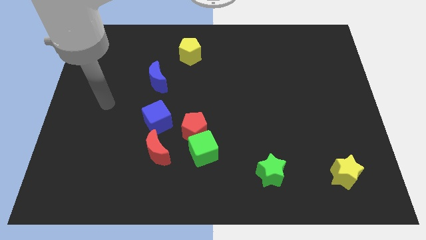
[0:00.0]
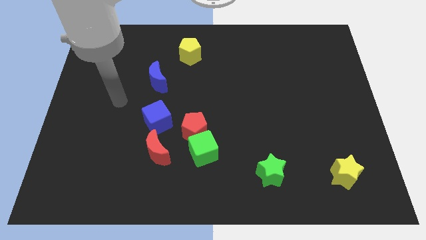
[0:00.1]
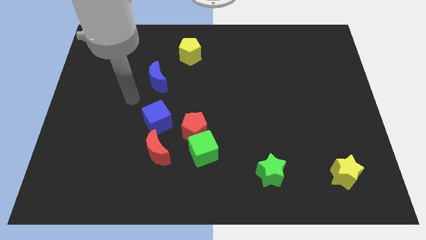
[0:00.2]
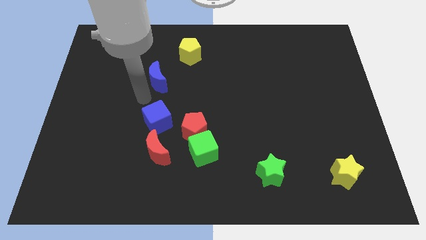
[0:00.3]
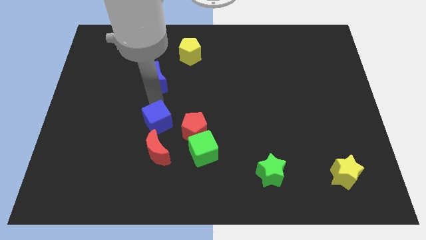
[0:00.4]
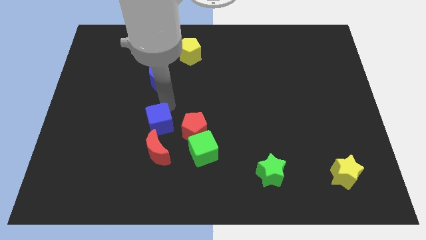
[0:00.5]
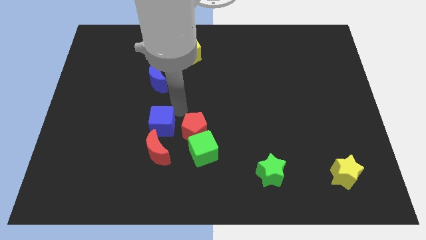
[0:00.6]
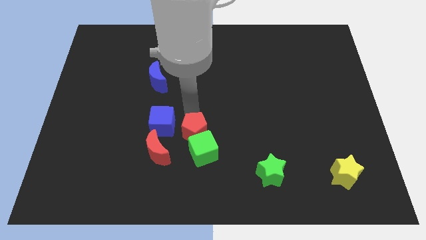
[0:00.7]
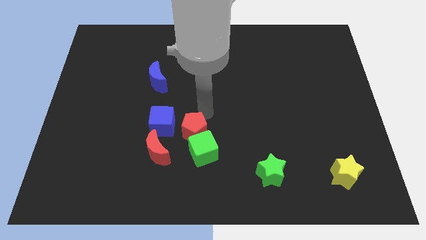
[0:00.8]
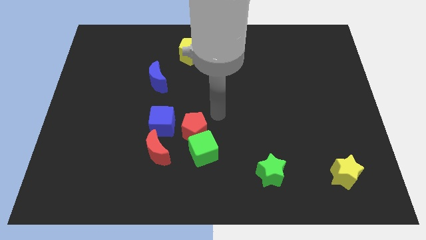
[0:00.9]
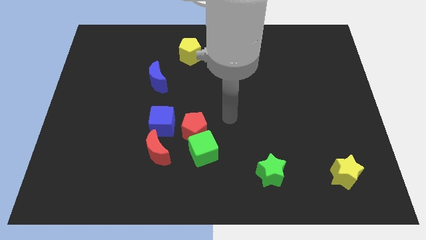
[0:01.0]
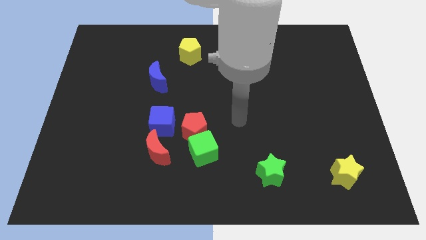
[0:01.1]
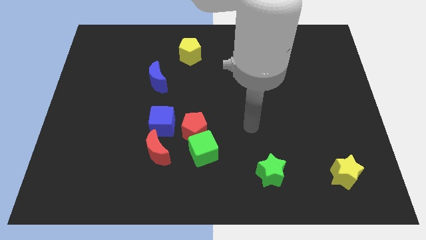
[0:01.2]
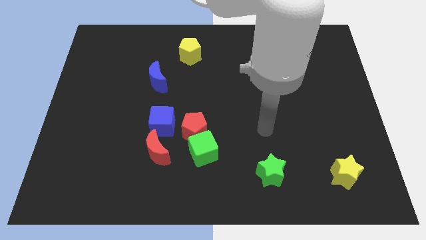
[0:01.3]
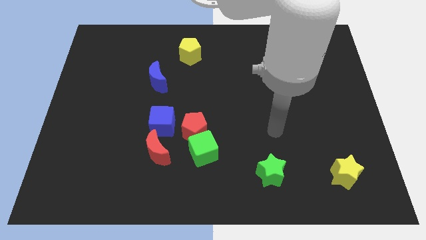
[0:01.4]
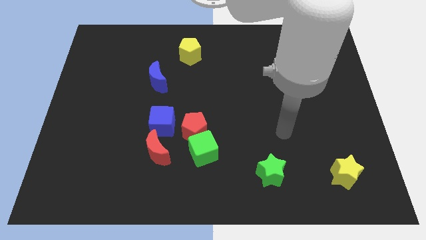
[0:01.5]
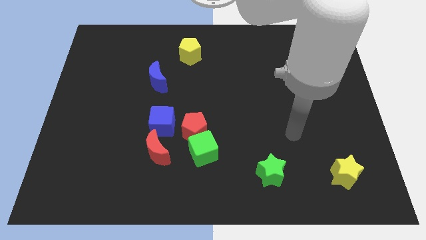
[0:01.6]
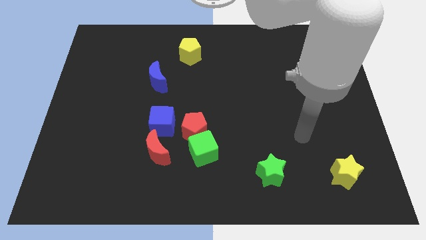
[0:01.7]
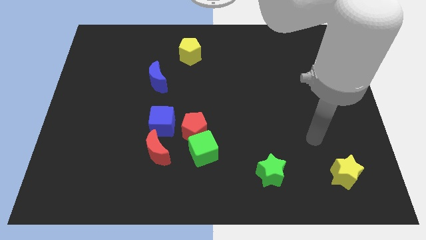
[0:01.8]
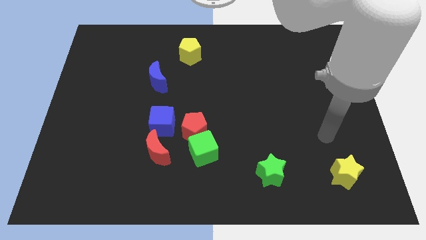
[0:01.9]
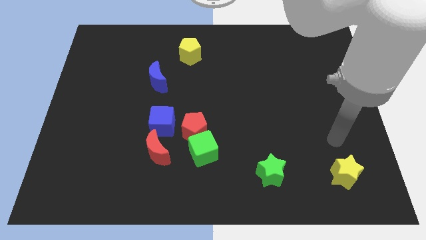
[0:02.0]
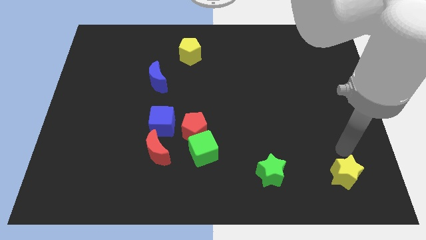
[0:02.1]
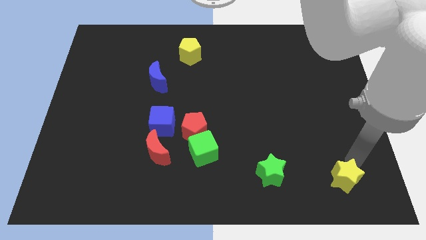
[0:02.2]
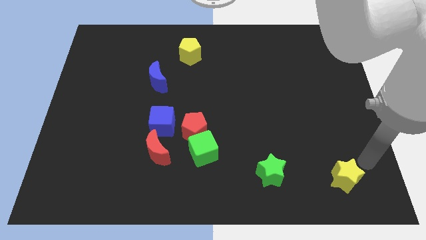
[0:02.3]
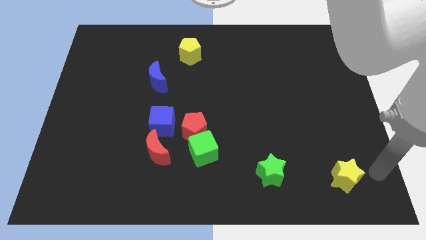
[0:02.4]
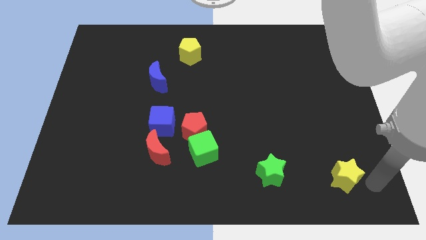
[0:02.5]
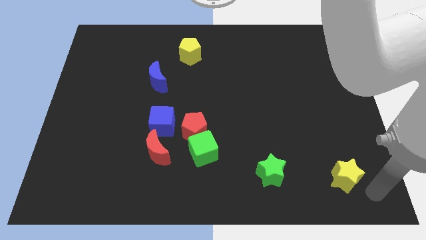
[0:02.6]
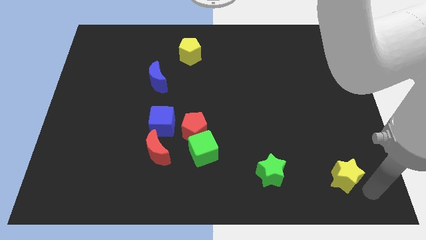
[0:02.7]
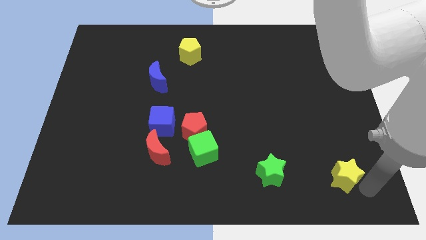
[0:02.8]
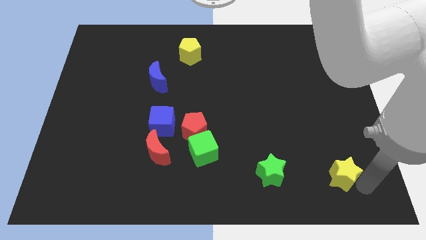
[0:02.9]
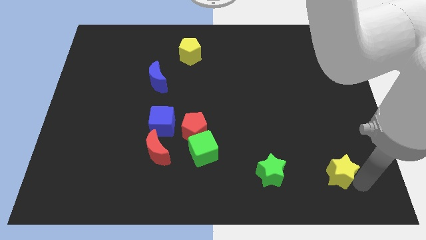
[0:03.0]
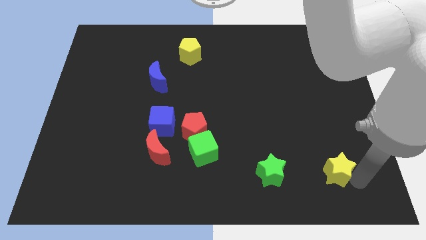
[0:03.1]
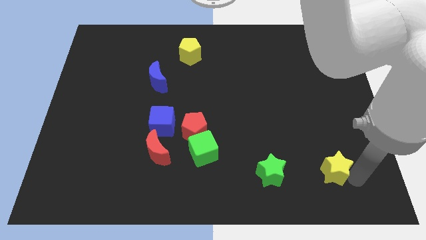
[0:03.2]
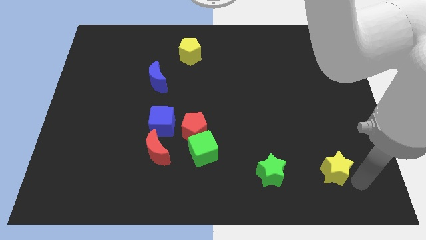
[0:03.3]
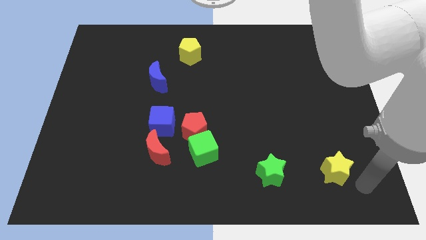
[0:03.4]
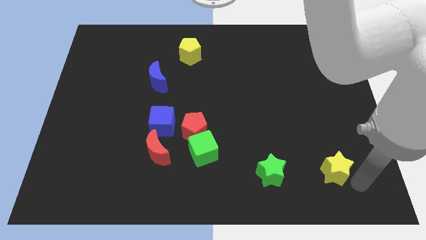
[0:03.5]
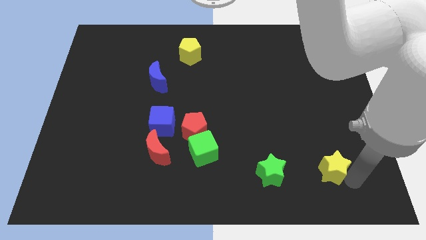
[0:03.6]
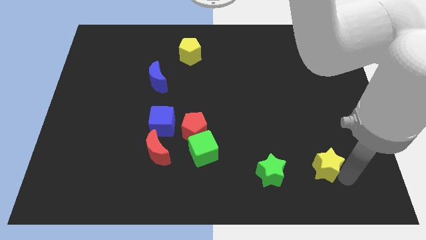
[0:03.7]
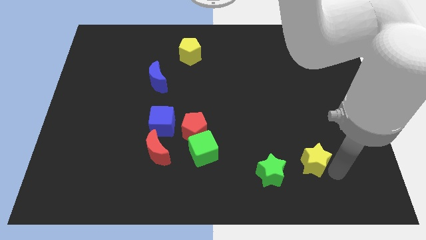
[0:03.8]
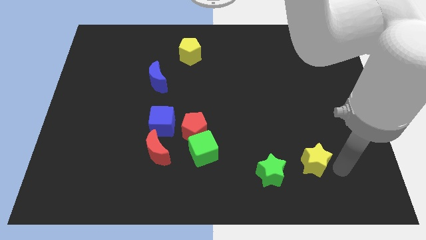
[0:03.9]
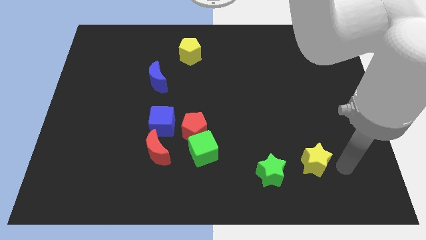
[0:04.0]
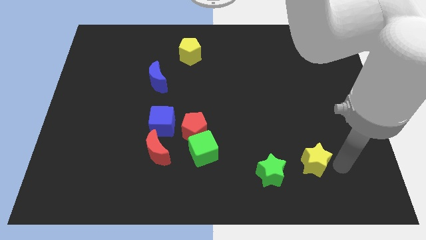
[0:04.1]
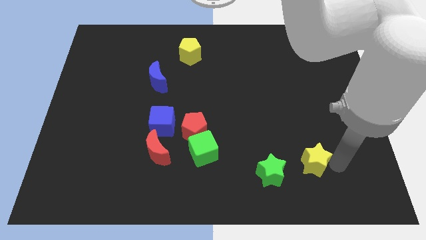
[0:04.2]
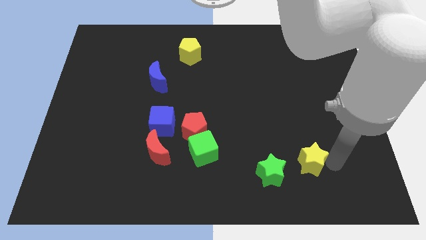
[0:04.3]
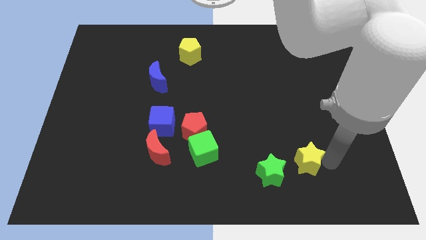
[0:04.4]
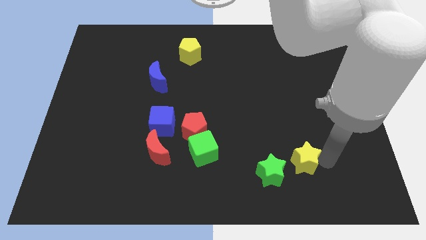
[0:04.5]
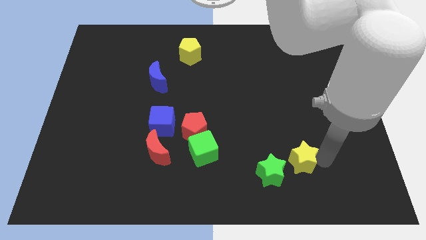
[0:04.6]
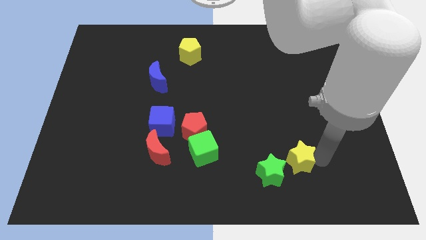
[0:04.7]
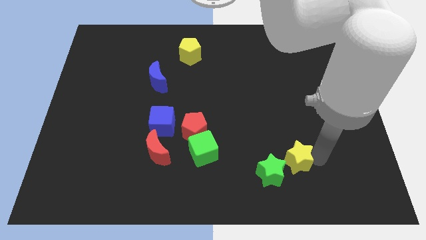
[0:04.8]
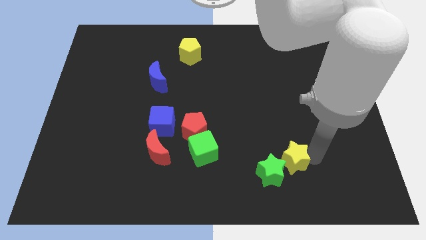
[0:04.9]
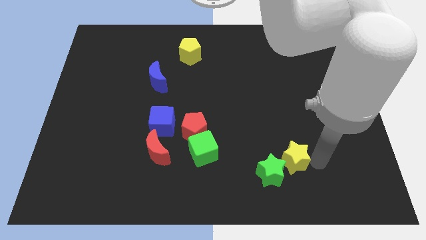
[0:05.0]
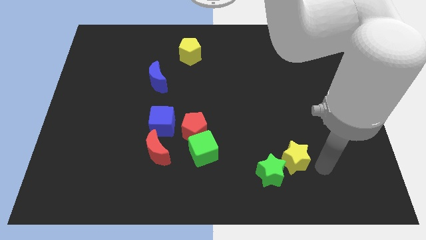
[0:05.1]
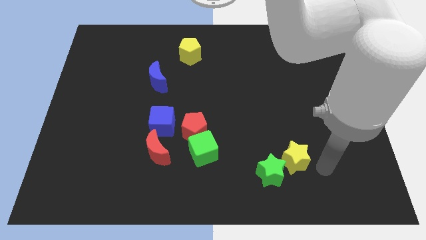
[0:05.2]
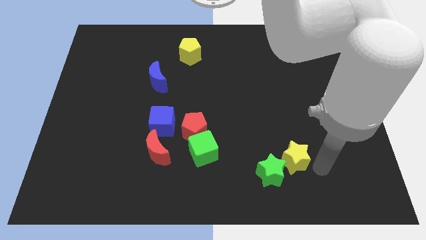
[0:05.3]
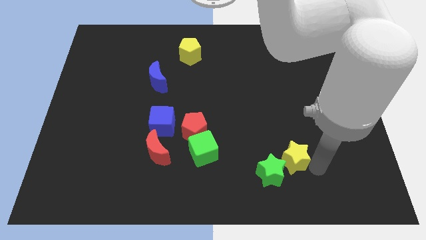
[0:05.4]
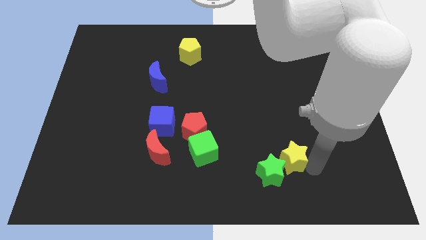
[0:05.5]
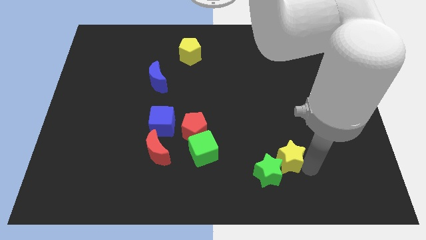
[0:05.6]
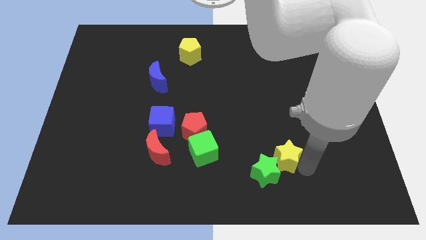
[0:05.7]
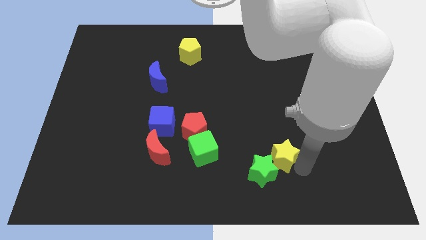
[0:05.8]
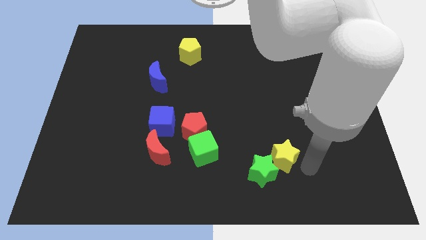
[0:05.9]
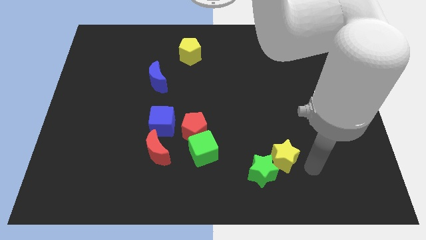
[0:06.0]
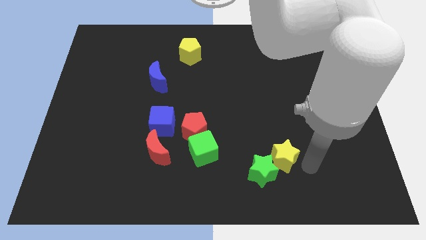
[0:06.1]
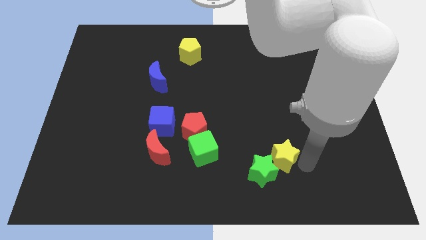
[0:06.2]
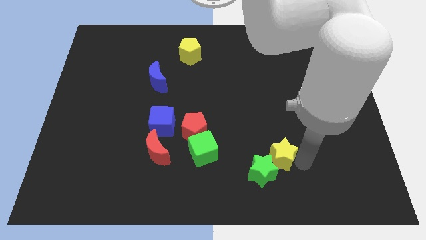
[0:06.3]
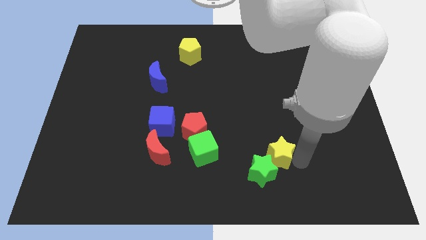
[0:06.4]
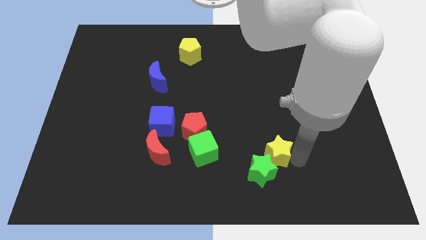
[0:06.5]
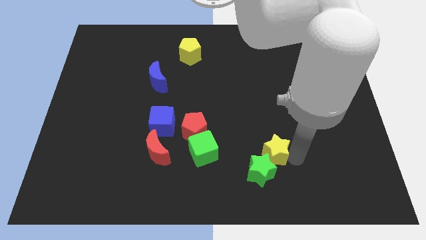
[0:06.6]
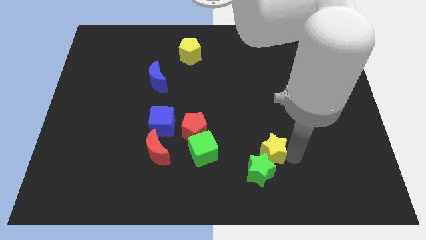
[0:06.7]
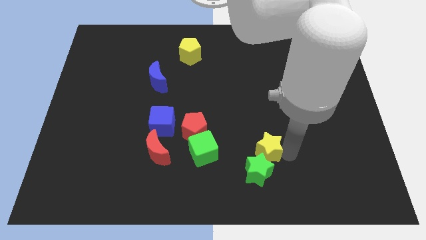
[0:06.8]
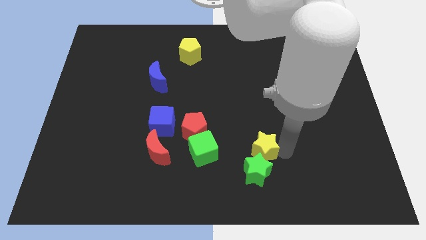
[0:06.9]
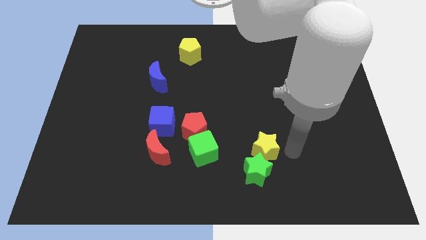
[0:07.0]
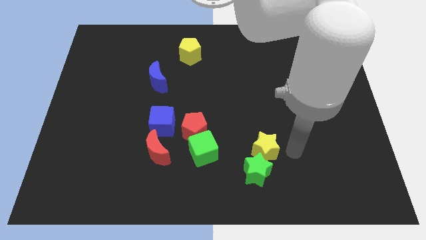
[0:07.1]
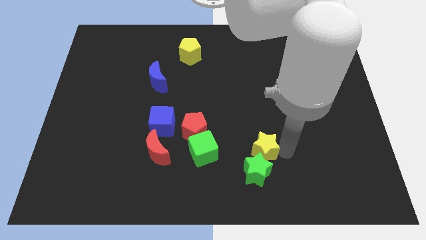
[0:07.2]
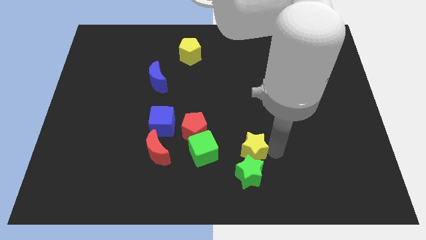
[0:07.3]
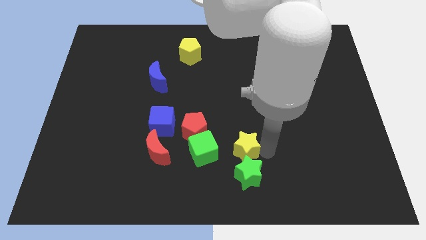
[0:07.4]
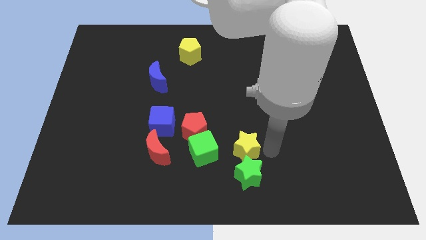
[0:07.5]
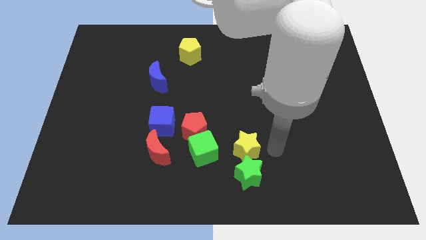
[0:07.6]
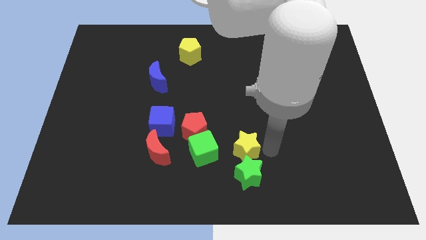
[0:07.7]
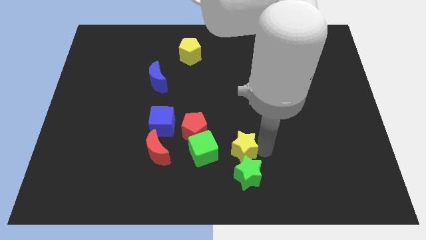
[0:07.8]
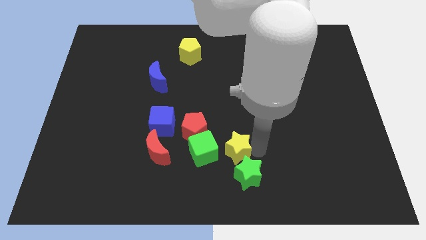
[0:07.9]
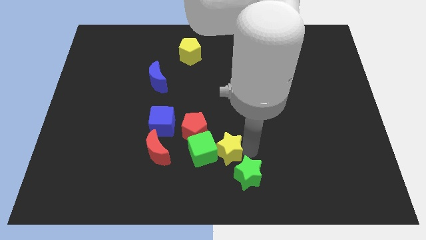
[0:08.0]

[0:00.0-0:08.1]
slide the yellow star towards the green cube
